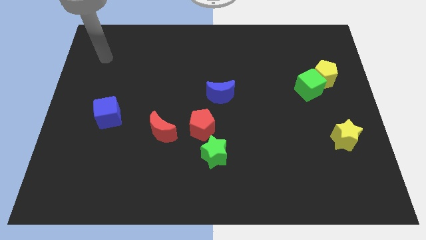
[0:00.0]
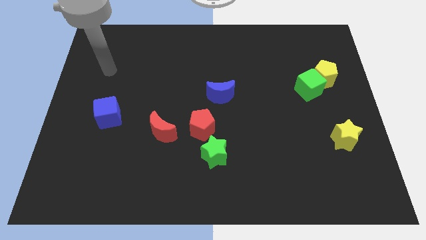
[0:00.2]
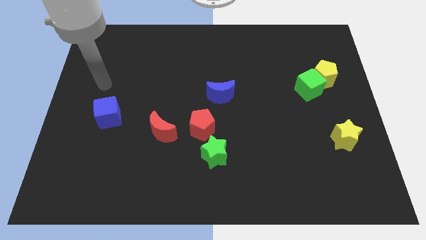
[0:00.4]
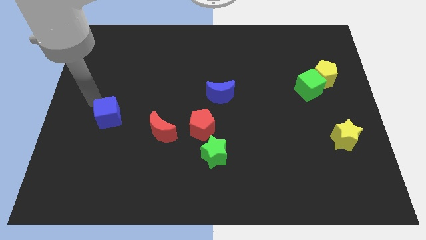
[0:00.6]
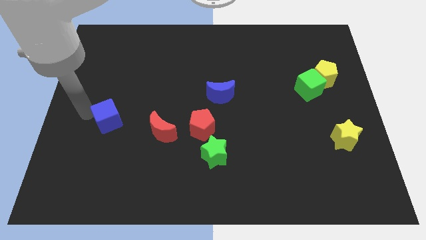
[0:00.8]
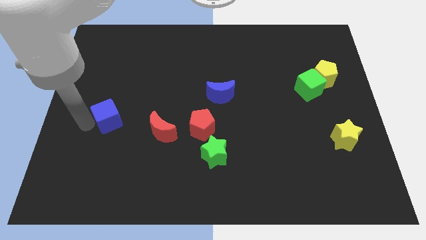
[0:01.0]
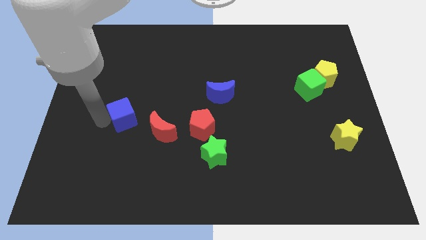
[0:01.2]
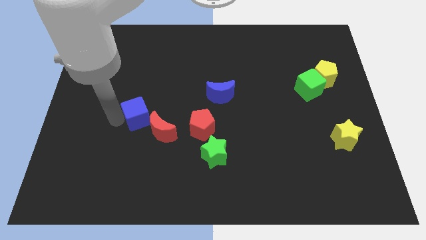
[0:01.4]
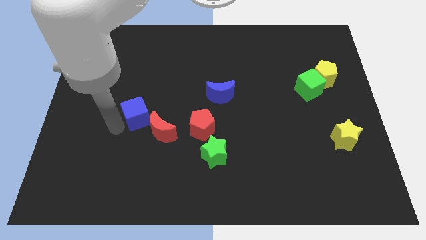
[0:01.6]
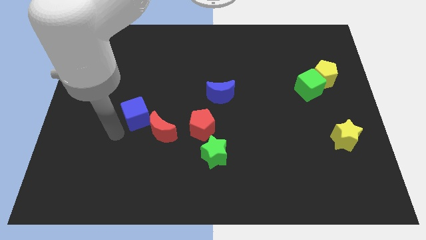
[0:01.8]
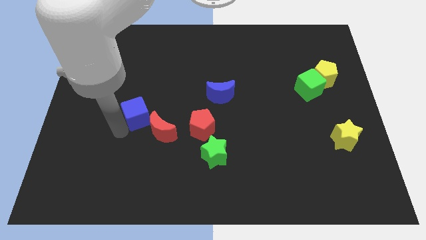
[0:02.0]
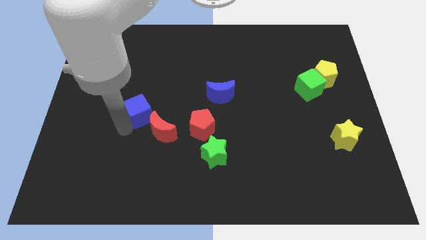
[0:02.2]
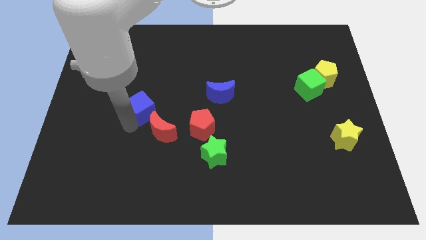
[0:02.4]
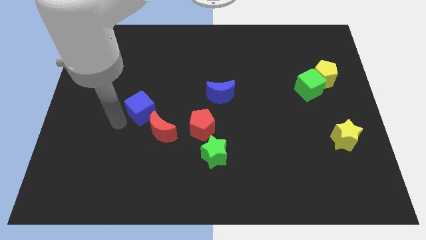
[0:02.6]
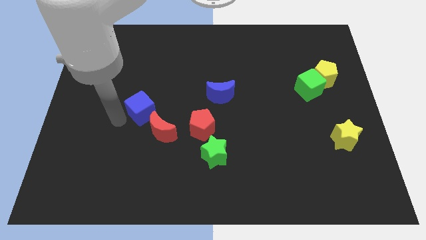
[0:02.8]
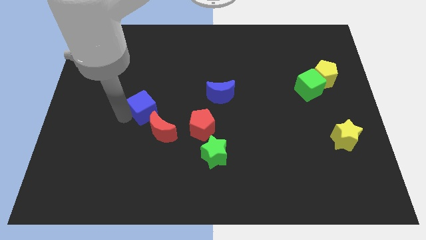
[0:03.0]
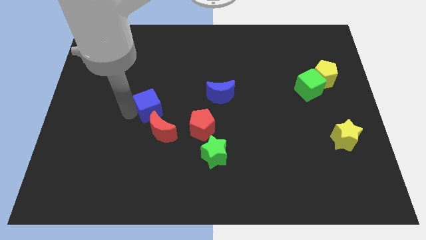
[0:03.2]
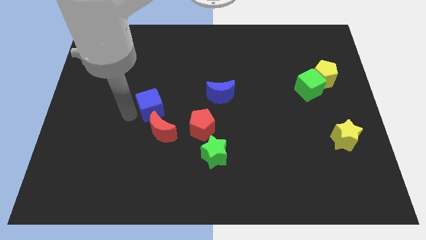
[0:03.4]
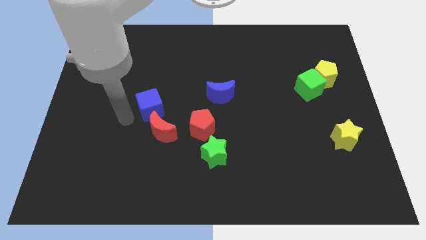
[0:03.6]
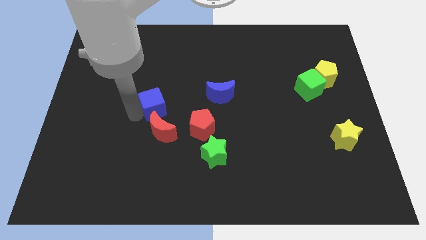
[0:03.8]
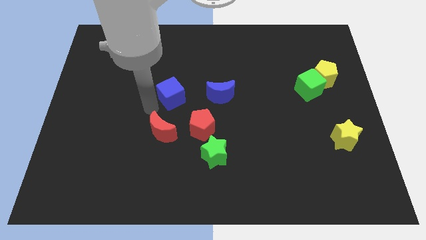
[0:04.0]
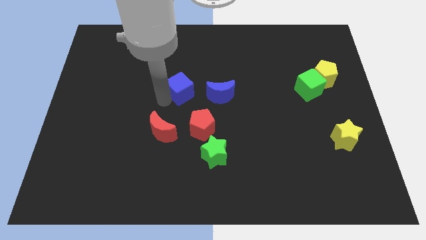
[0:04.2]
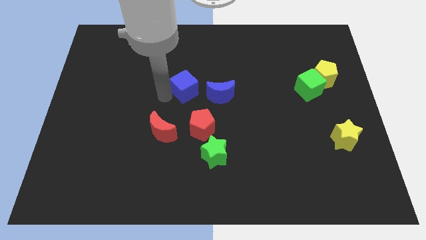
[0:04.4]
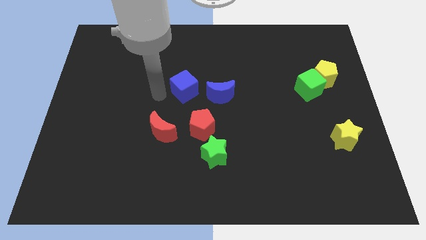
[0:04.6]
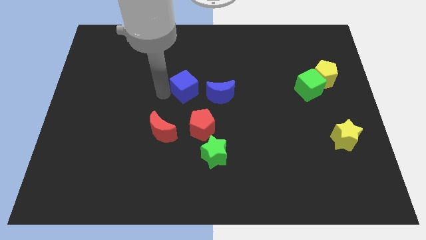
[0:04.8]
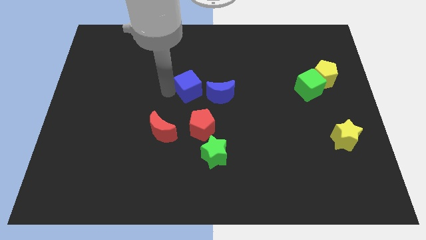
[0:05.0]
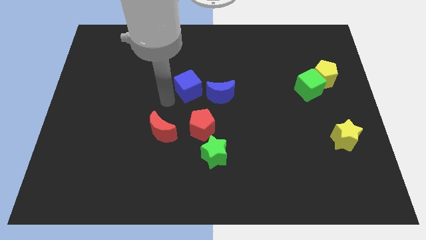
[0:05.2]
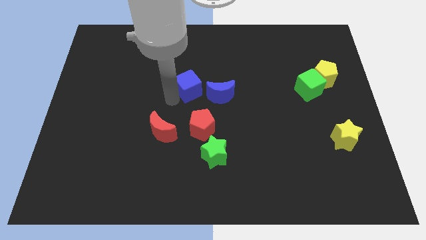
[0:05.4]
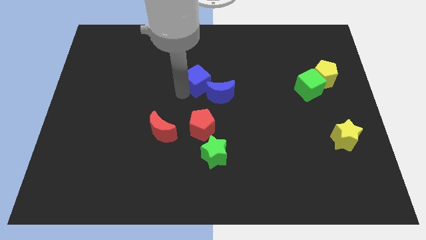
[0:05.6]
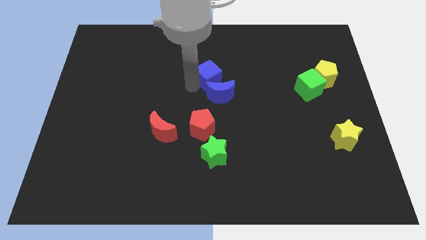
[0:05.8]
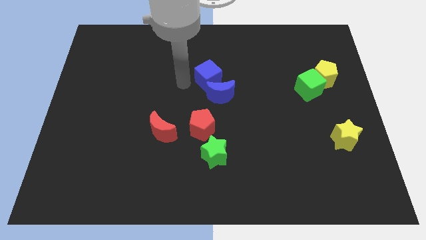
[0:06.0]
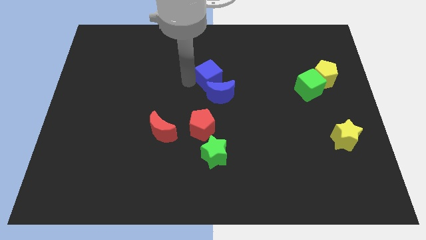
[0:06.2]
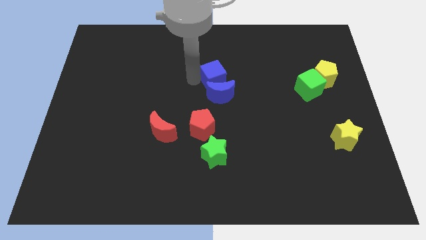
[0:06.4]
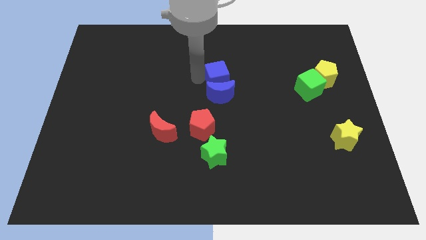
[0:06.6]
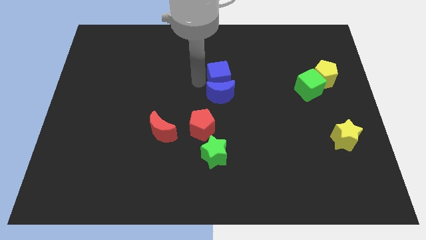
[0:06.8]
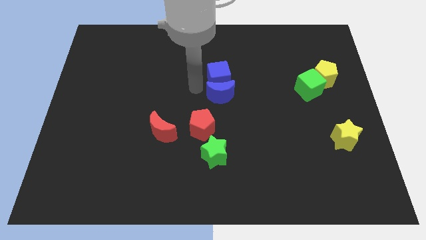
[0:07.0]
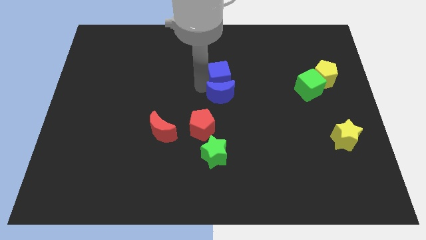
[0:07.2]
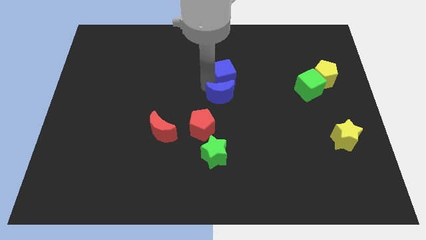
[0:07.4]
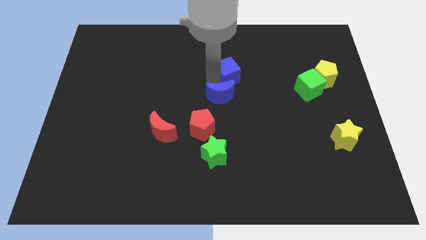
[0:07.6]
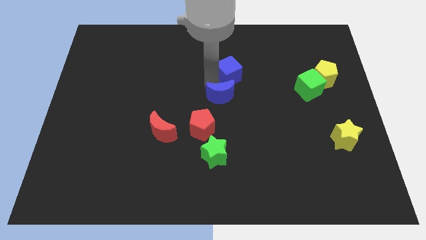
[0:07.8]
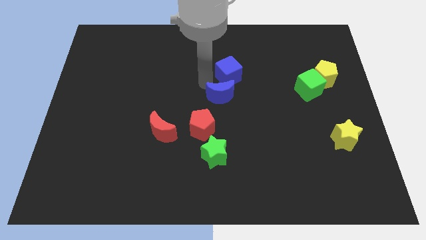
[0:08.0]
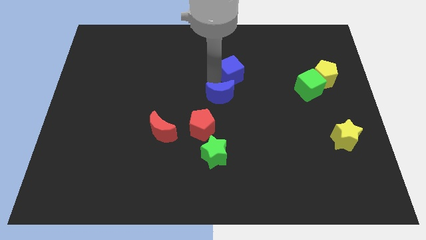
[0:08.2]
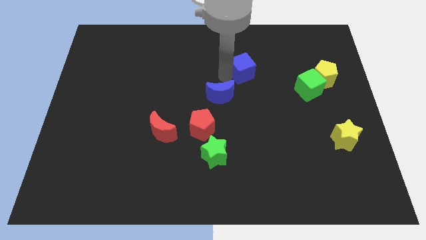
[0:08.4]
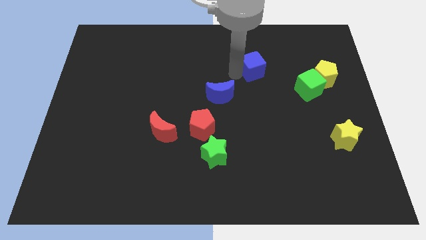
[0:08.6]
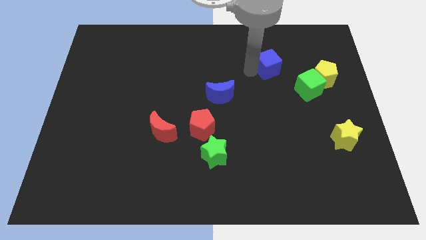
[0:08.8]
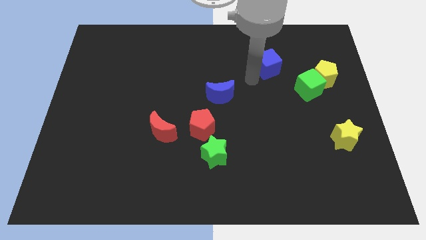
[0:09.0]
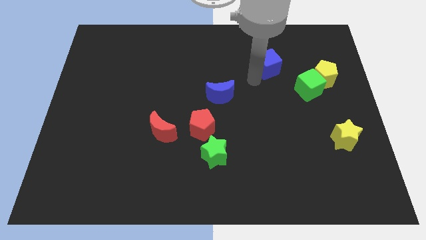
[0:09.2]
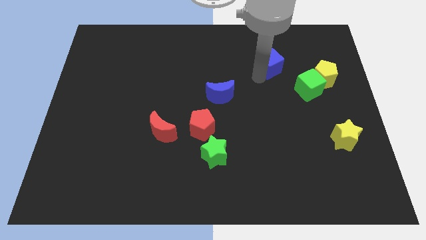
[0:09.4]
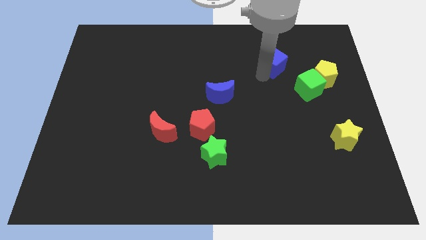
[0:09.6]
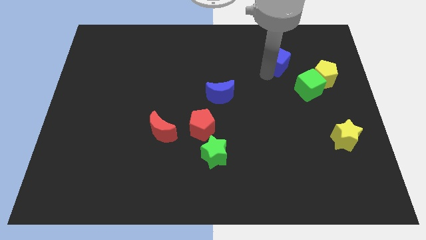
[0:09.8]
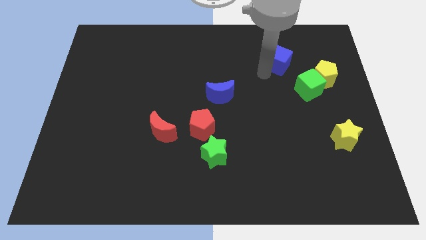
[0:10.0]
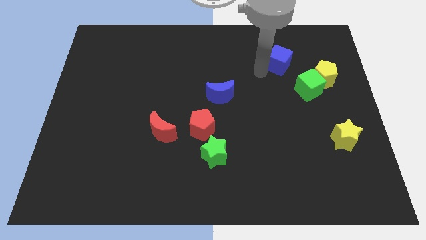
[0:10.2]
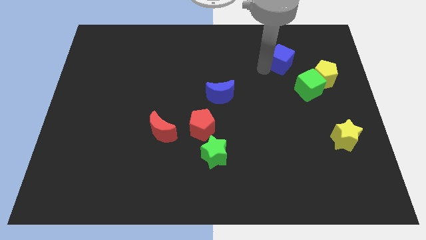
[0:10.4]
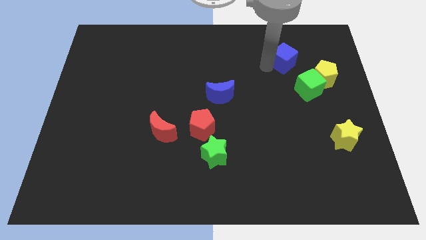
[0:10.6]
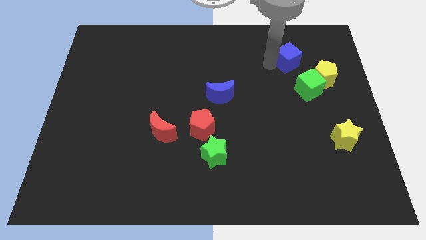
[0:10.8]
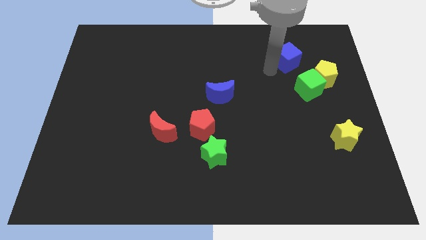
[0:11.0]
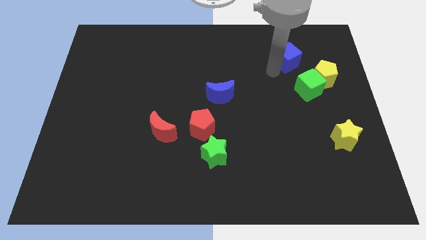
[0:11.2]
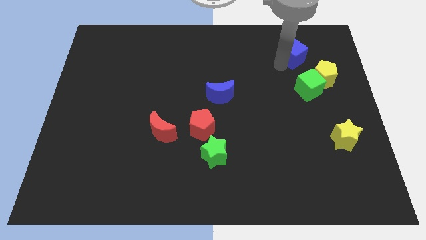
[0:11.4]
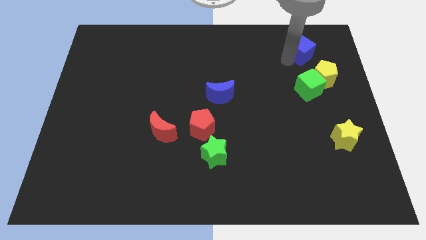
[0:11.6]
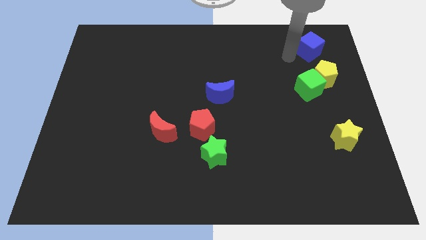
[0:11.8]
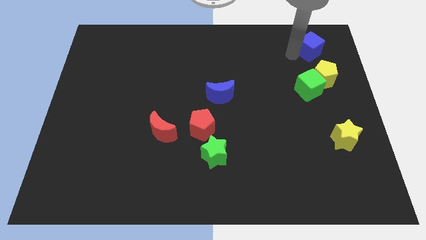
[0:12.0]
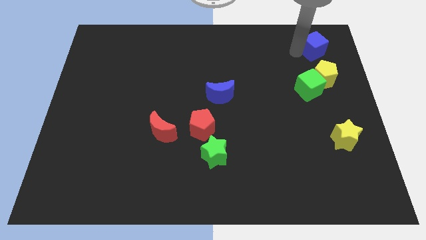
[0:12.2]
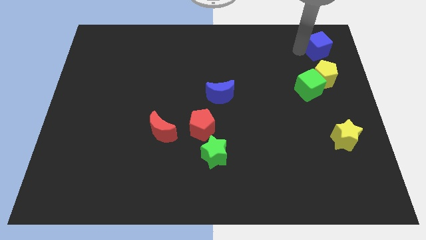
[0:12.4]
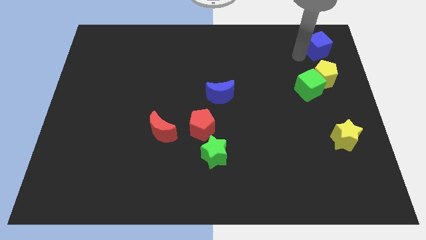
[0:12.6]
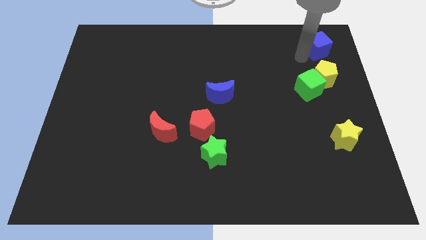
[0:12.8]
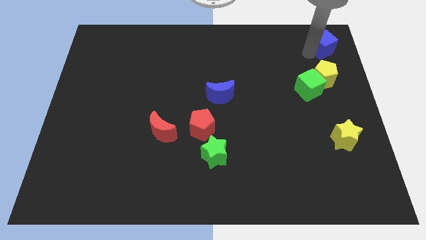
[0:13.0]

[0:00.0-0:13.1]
move the blue cube to the top right corner
